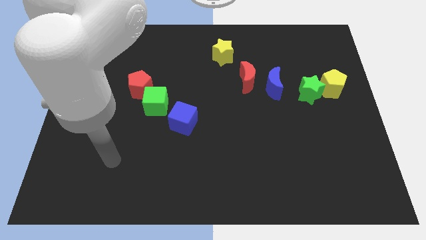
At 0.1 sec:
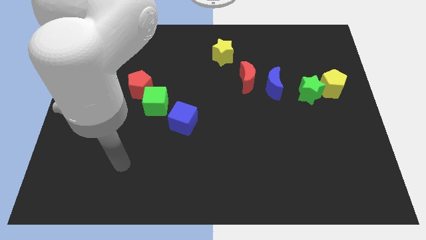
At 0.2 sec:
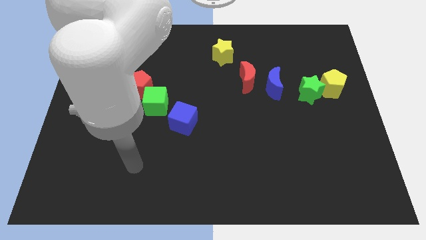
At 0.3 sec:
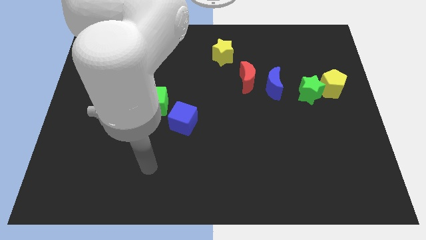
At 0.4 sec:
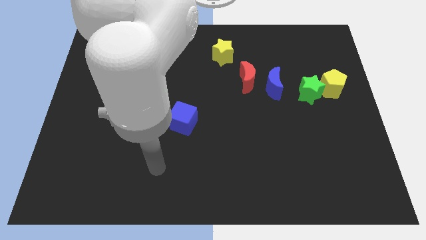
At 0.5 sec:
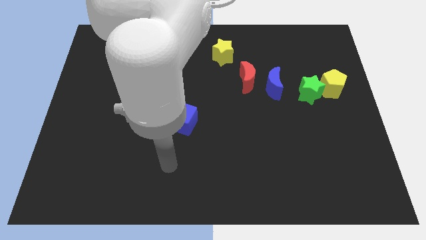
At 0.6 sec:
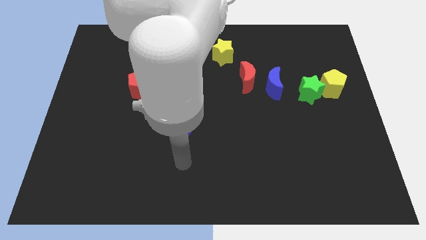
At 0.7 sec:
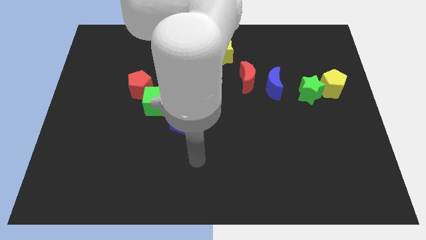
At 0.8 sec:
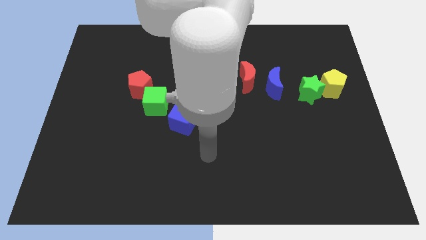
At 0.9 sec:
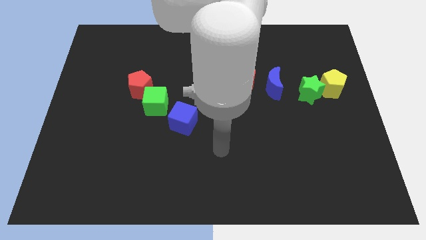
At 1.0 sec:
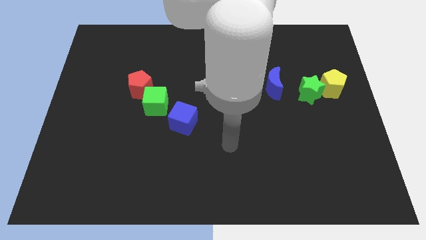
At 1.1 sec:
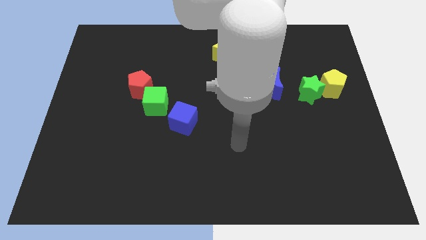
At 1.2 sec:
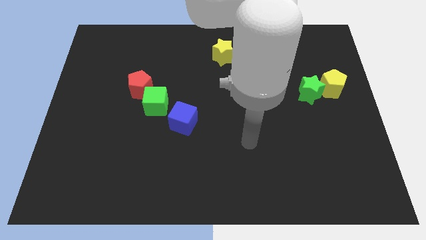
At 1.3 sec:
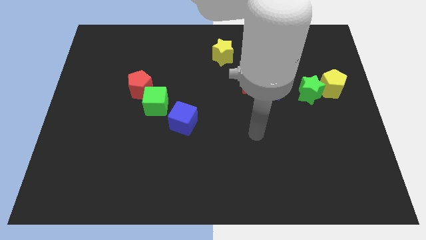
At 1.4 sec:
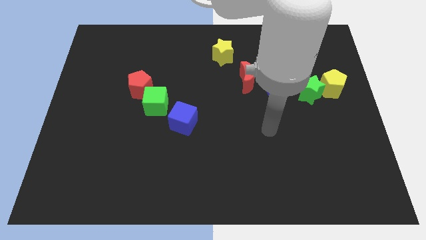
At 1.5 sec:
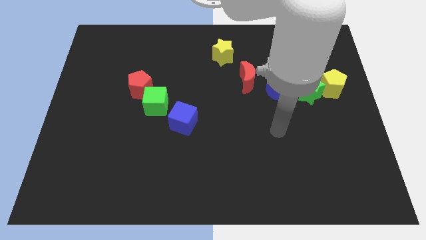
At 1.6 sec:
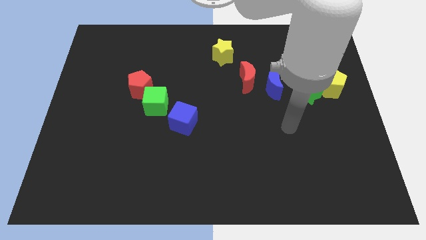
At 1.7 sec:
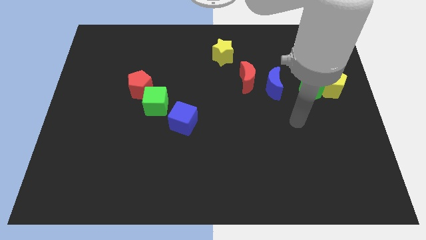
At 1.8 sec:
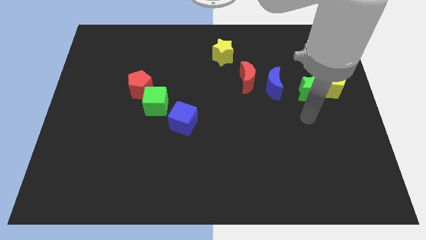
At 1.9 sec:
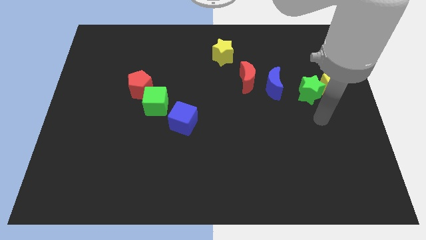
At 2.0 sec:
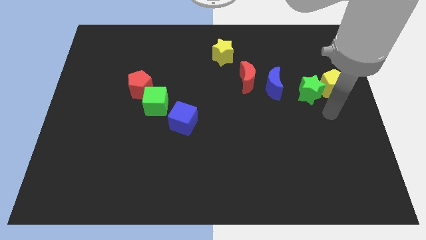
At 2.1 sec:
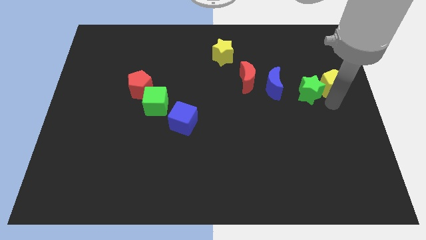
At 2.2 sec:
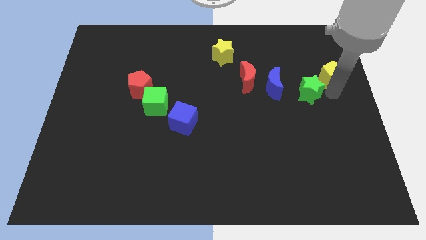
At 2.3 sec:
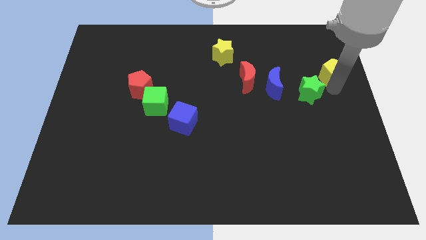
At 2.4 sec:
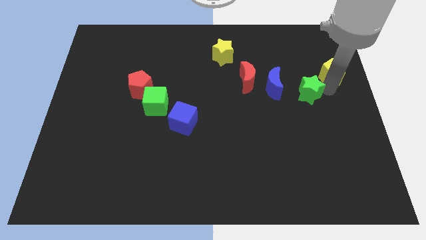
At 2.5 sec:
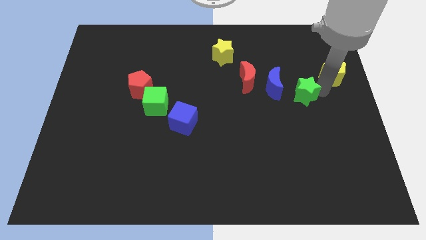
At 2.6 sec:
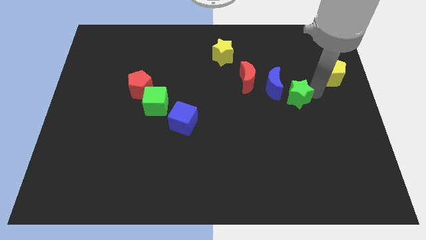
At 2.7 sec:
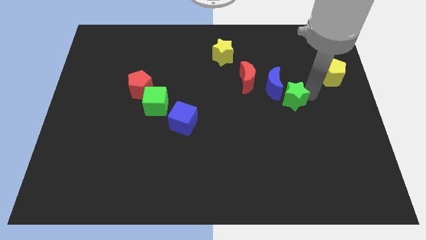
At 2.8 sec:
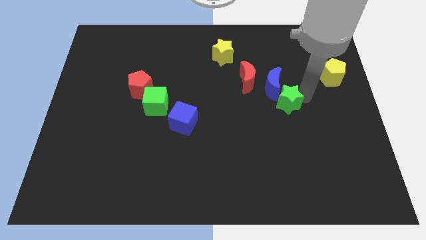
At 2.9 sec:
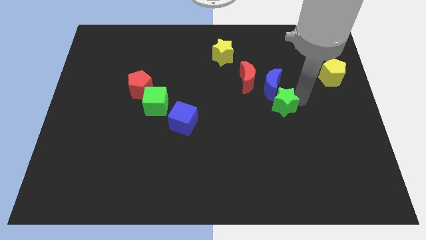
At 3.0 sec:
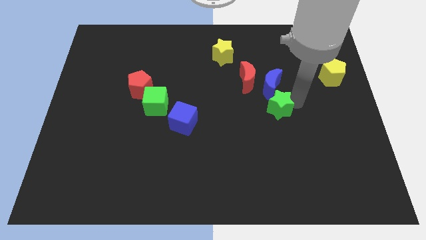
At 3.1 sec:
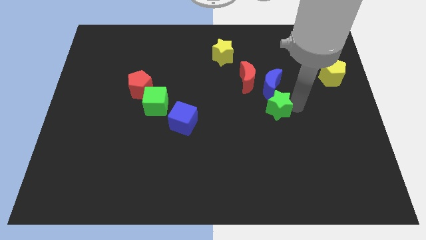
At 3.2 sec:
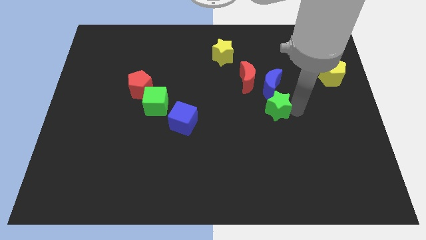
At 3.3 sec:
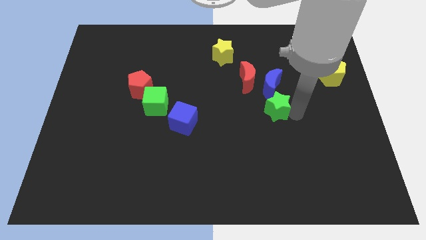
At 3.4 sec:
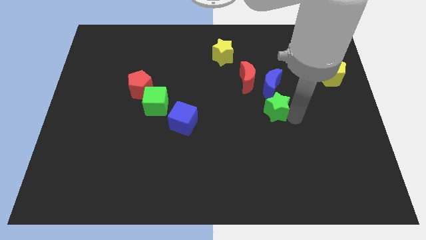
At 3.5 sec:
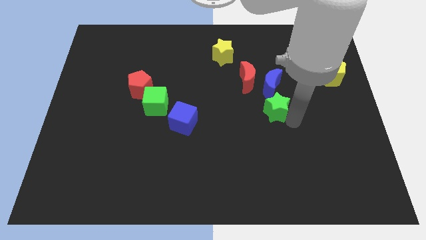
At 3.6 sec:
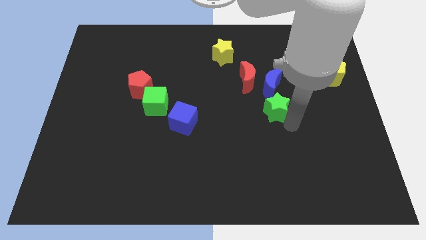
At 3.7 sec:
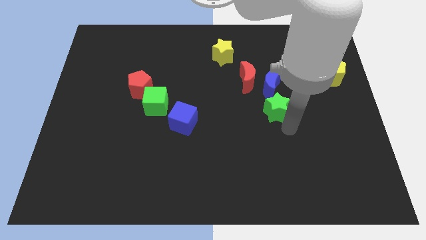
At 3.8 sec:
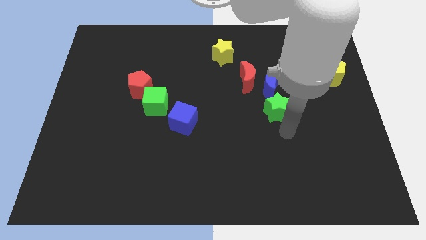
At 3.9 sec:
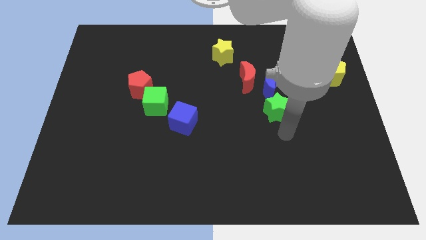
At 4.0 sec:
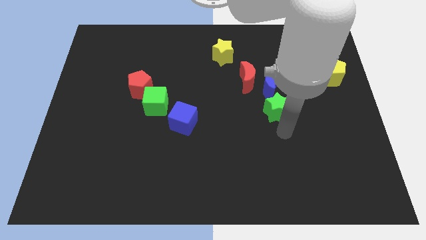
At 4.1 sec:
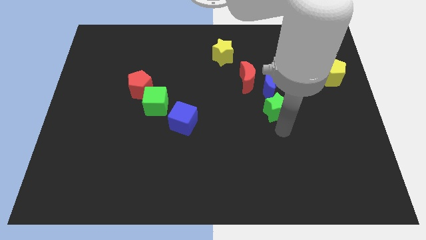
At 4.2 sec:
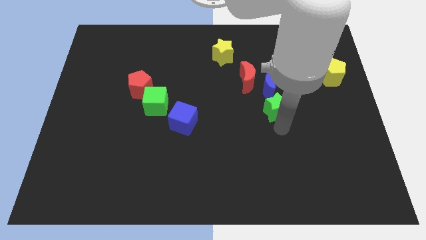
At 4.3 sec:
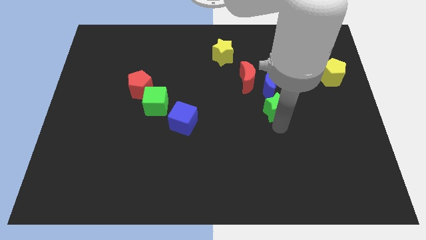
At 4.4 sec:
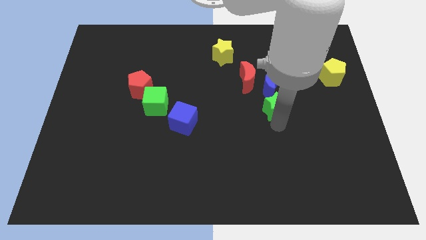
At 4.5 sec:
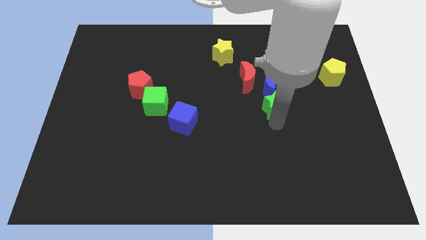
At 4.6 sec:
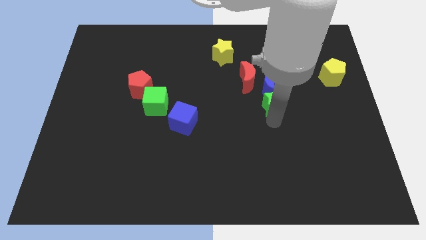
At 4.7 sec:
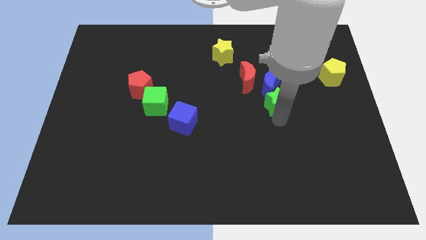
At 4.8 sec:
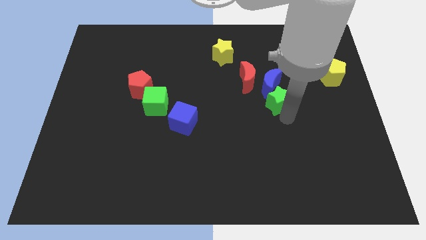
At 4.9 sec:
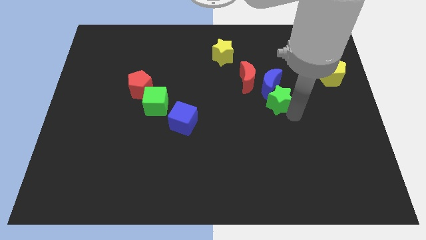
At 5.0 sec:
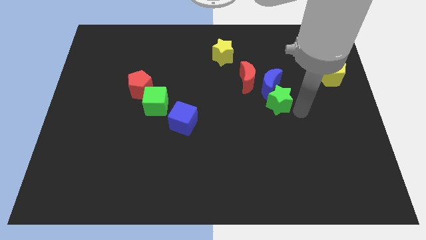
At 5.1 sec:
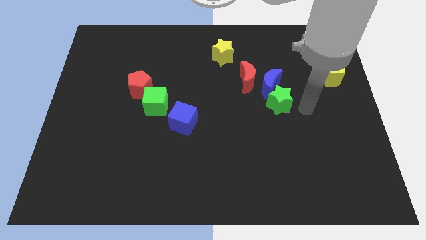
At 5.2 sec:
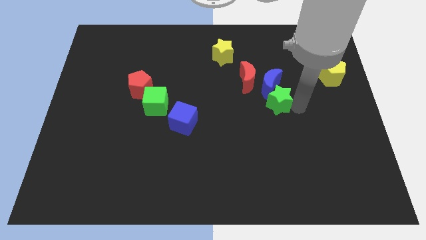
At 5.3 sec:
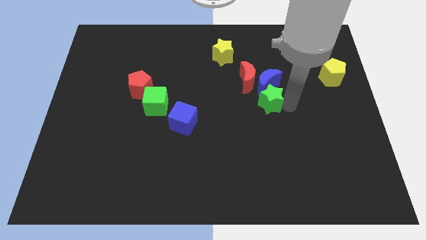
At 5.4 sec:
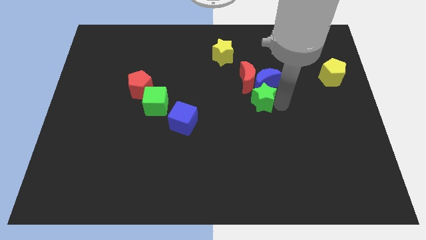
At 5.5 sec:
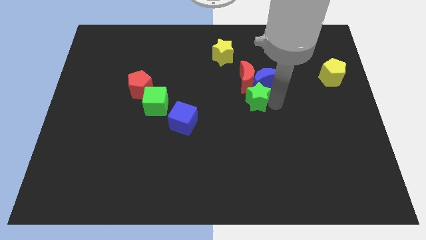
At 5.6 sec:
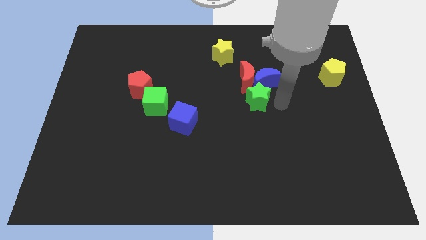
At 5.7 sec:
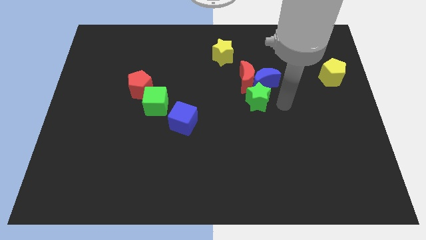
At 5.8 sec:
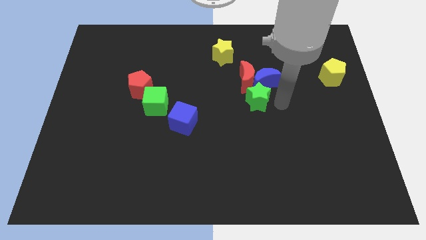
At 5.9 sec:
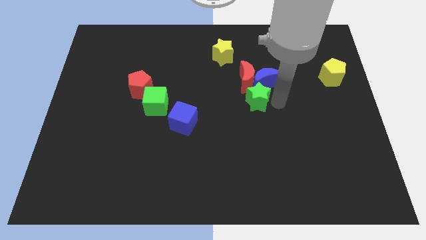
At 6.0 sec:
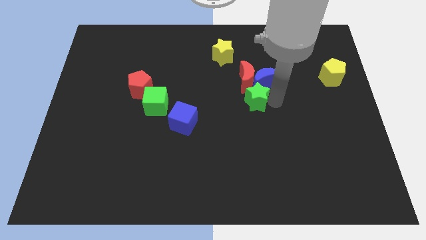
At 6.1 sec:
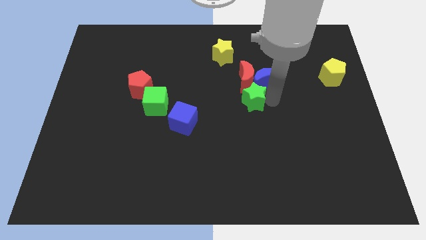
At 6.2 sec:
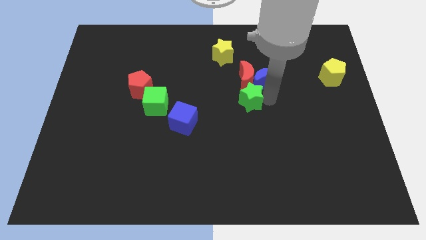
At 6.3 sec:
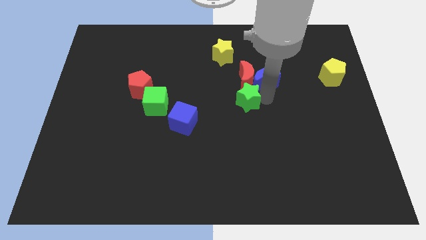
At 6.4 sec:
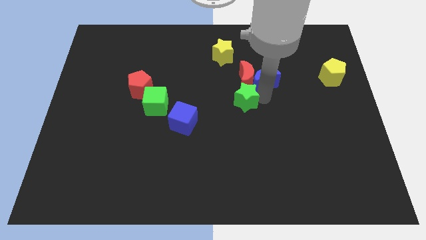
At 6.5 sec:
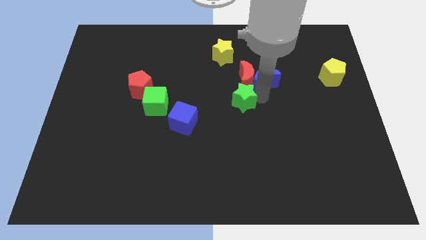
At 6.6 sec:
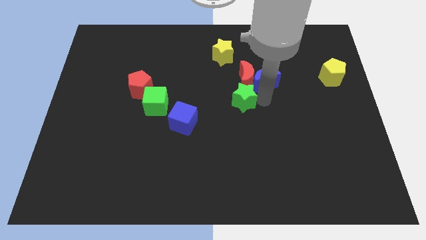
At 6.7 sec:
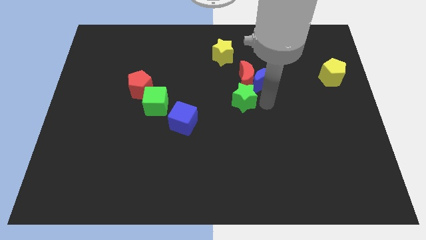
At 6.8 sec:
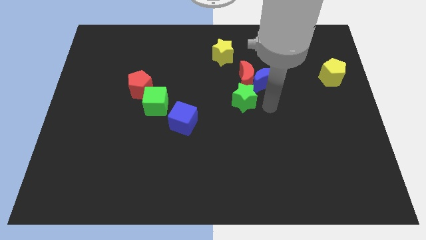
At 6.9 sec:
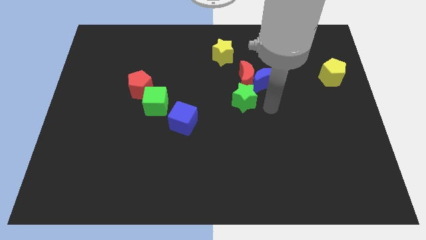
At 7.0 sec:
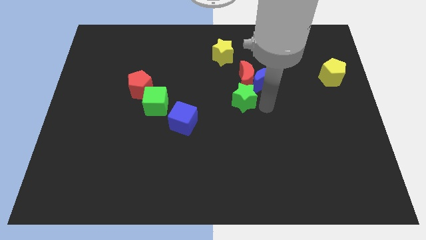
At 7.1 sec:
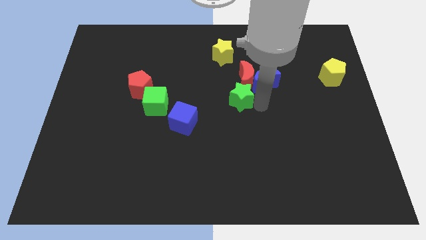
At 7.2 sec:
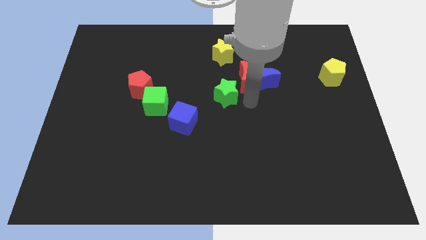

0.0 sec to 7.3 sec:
push the green star to the left

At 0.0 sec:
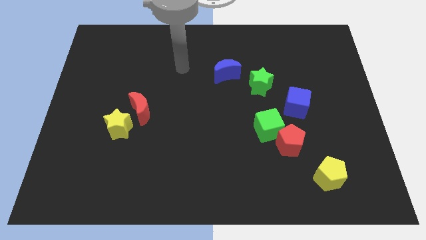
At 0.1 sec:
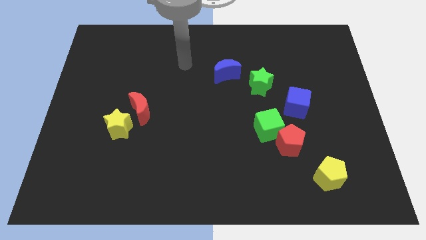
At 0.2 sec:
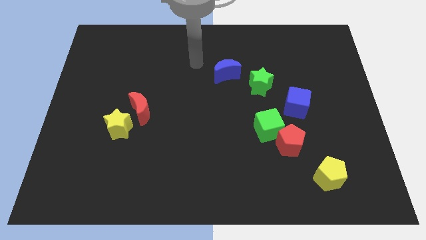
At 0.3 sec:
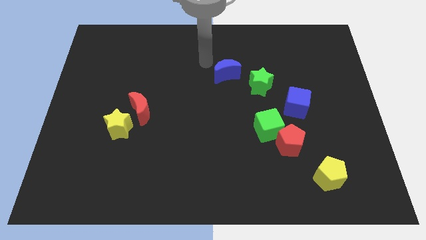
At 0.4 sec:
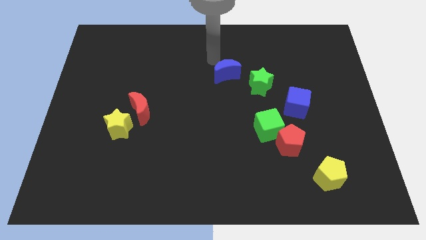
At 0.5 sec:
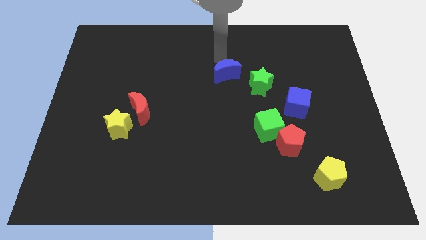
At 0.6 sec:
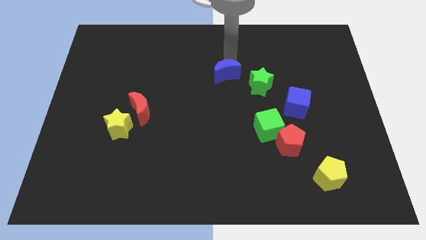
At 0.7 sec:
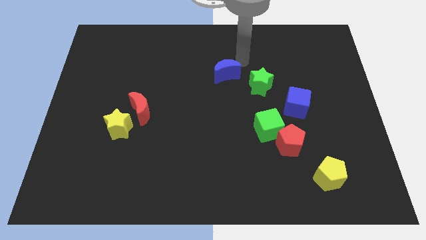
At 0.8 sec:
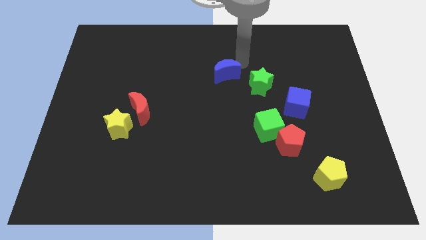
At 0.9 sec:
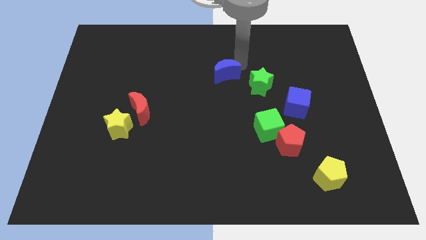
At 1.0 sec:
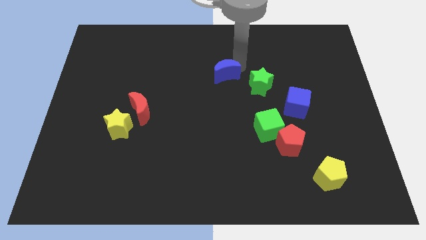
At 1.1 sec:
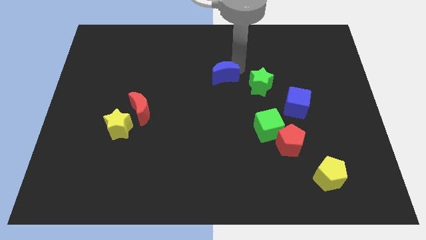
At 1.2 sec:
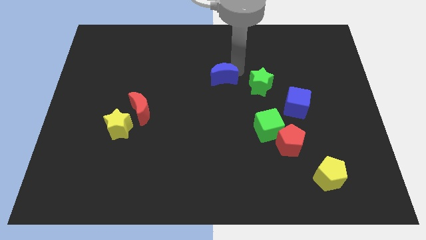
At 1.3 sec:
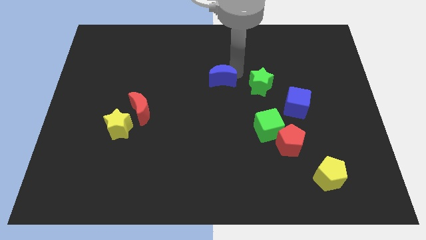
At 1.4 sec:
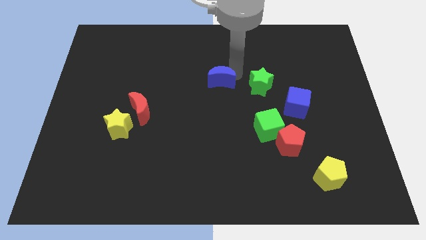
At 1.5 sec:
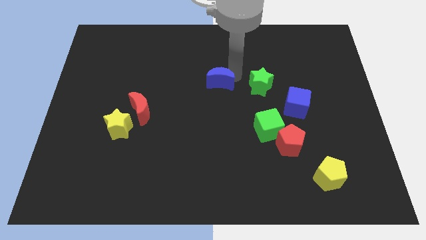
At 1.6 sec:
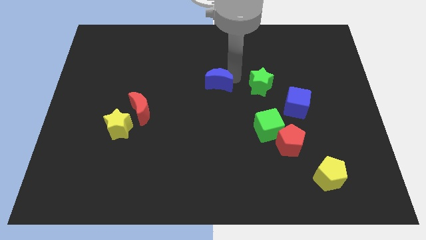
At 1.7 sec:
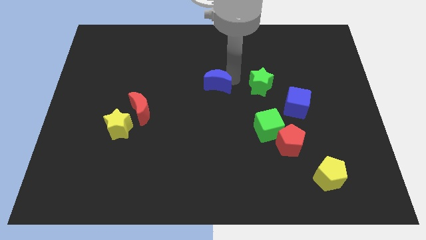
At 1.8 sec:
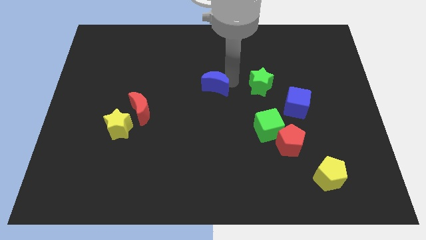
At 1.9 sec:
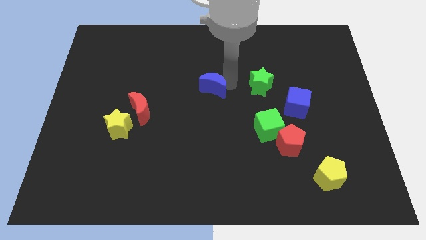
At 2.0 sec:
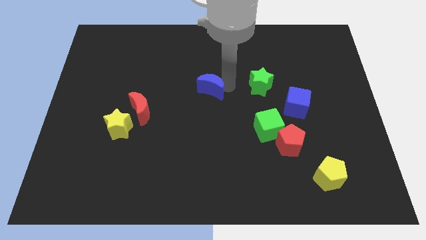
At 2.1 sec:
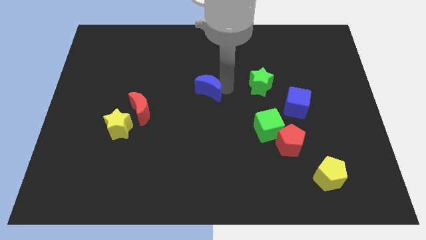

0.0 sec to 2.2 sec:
push the blue moon a bit downwards and then left
